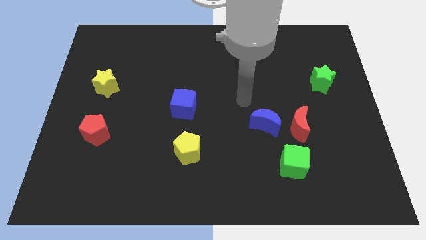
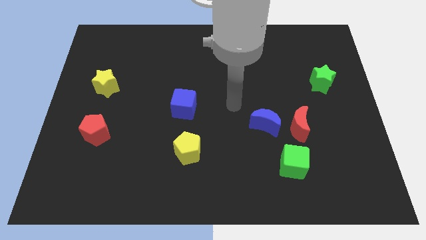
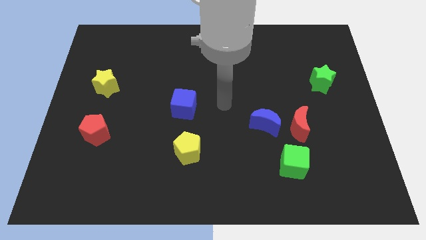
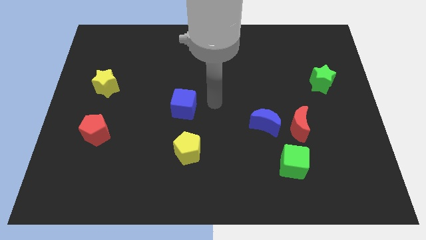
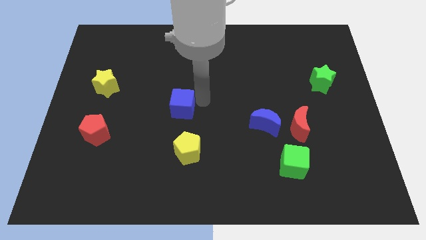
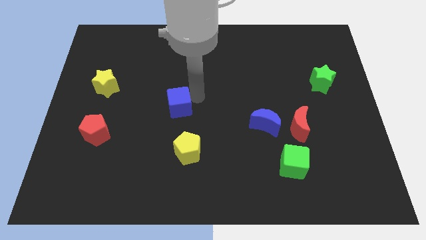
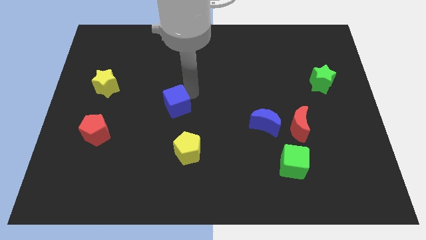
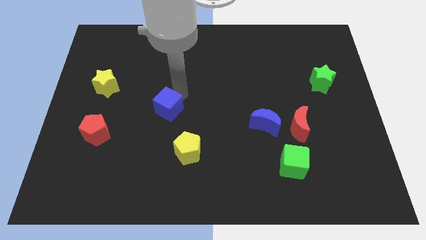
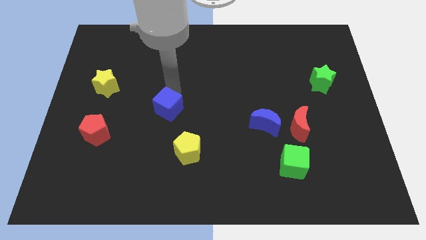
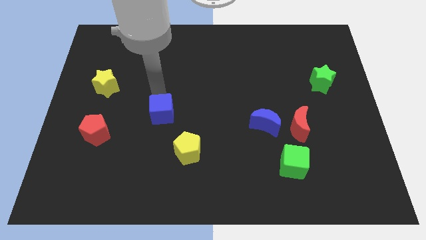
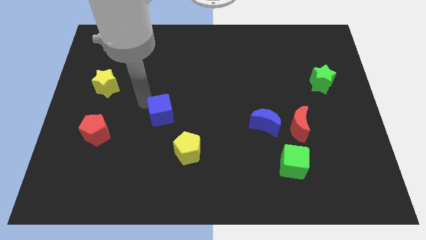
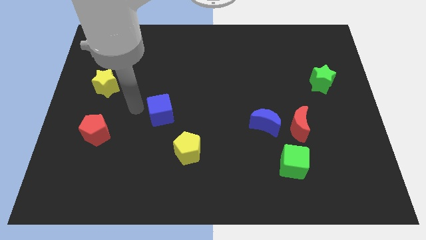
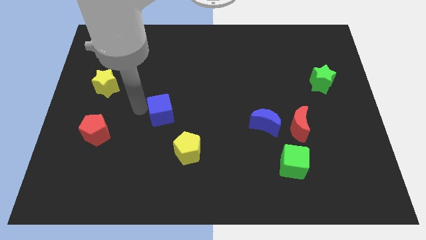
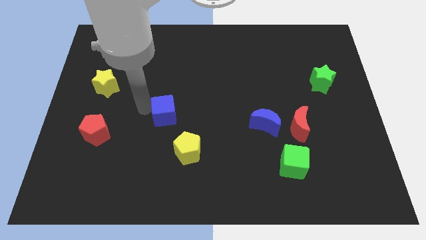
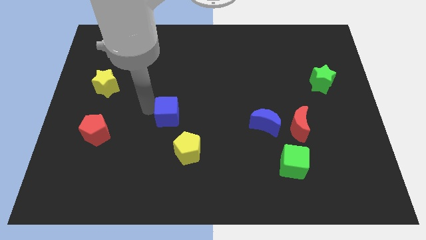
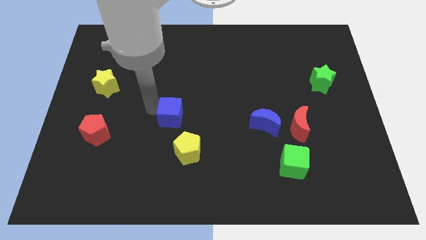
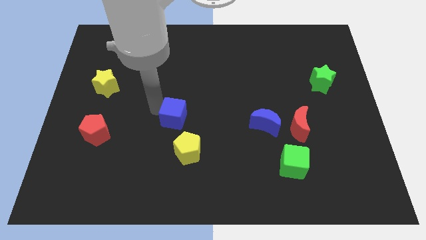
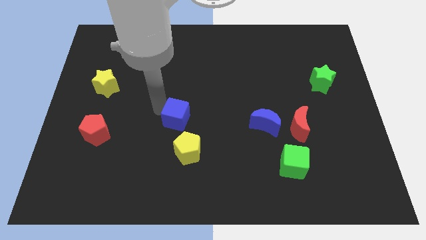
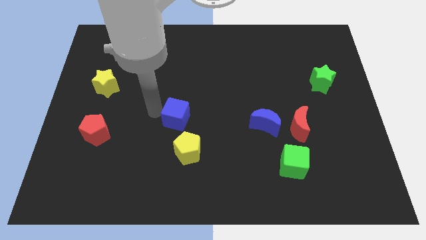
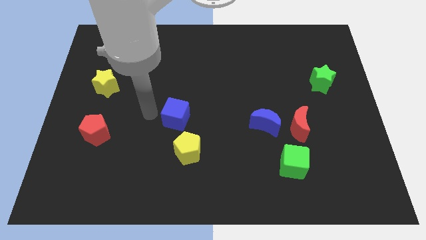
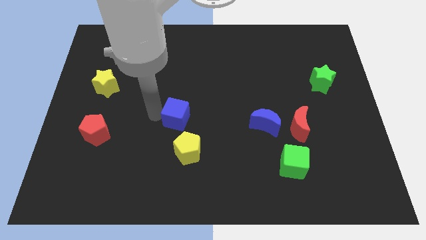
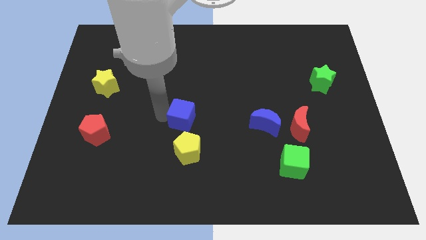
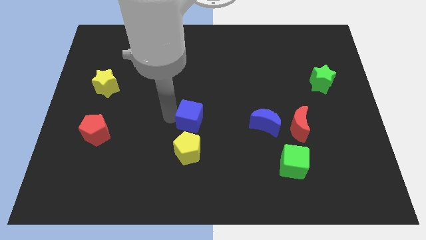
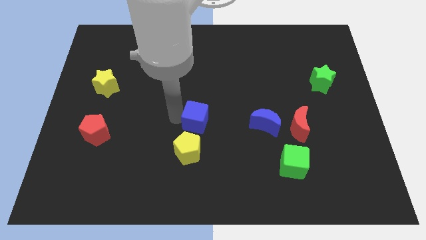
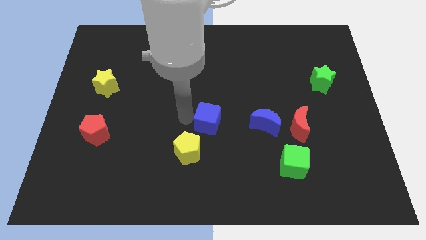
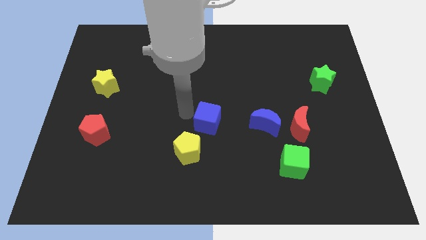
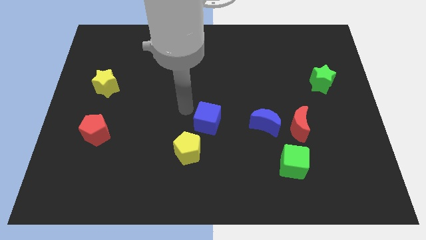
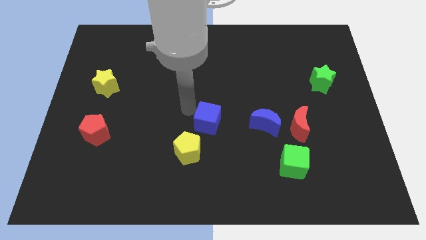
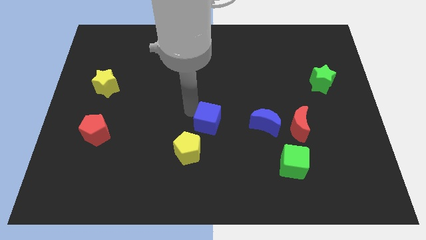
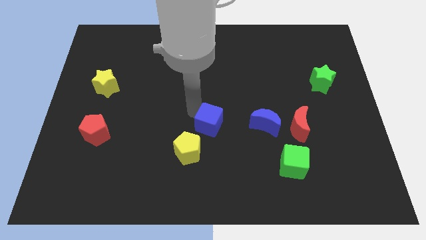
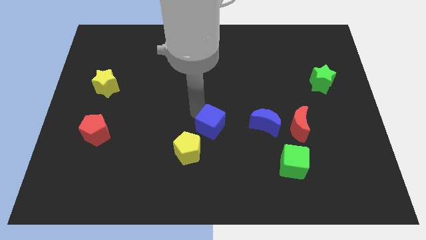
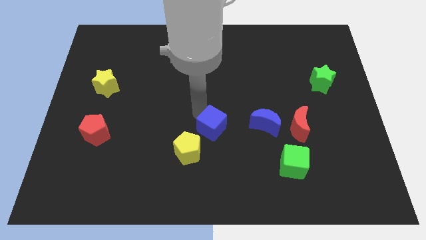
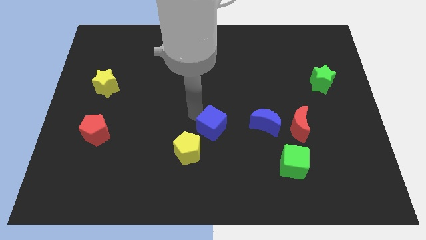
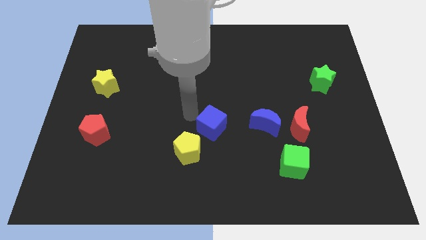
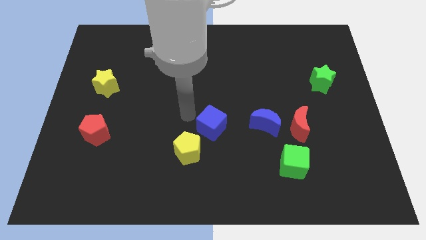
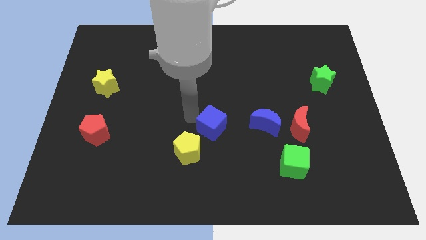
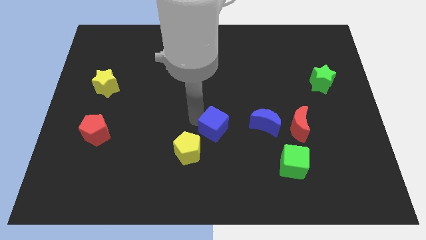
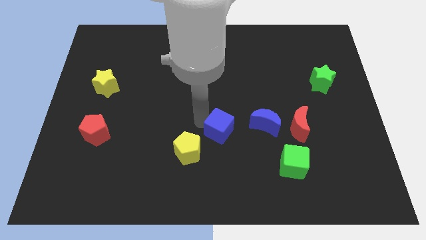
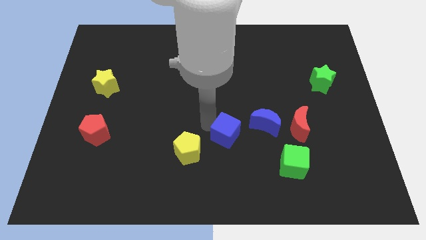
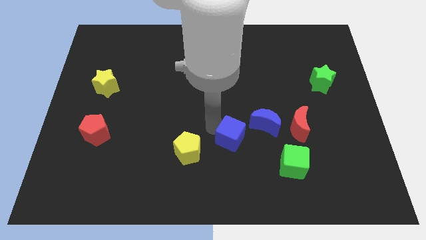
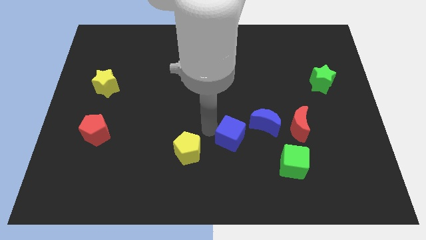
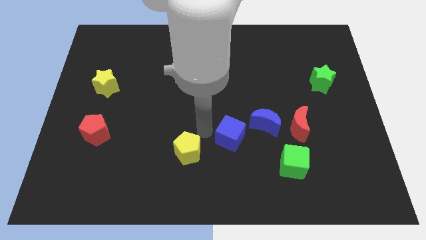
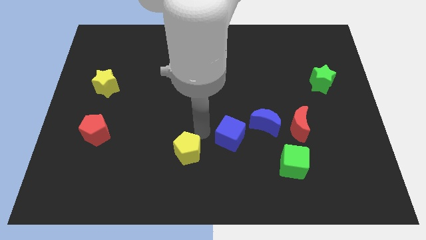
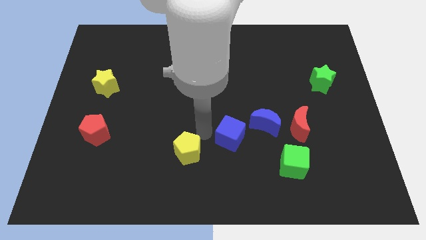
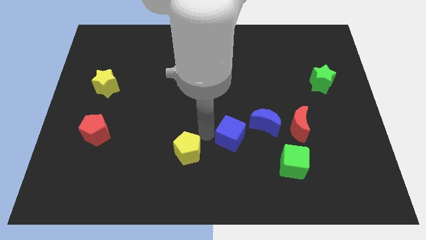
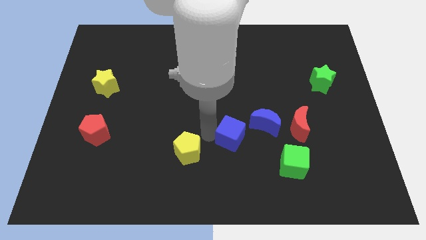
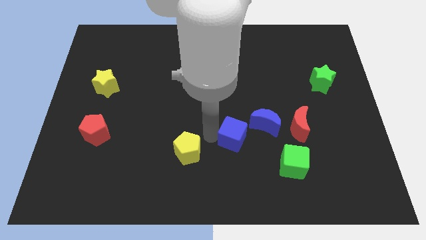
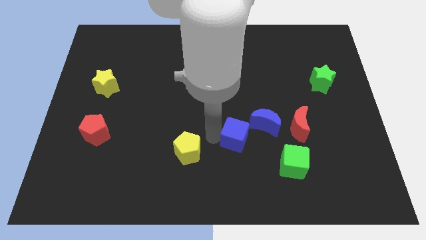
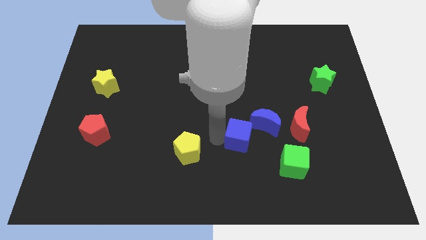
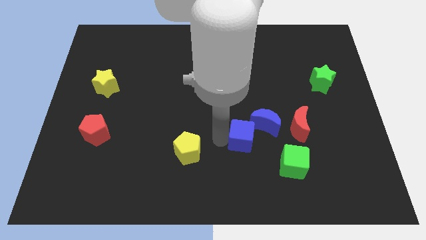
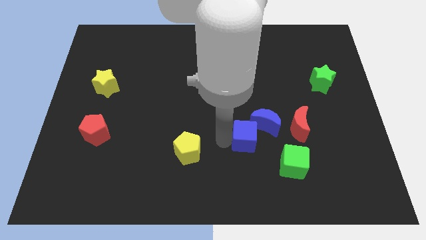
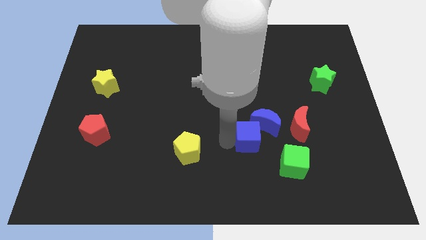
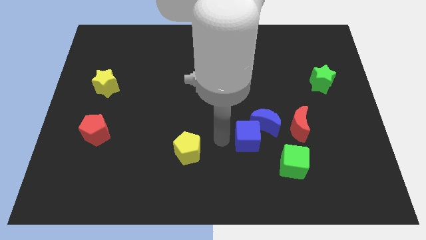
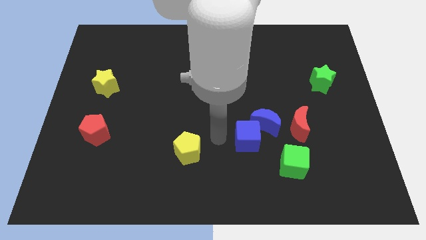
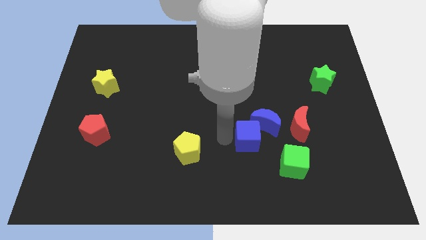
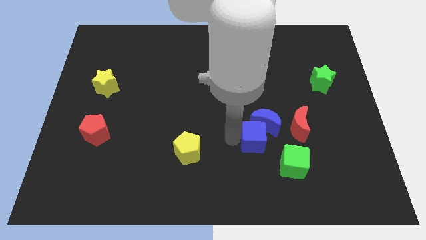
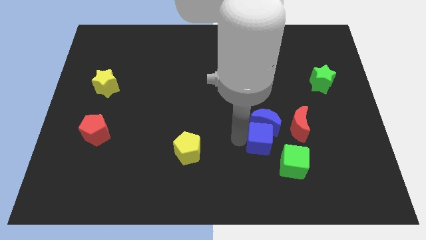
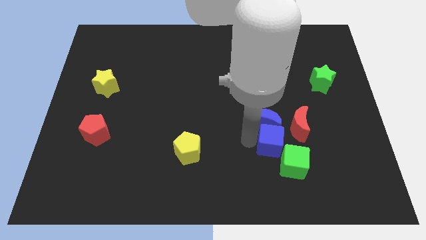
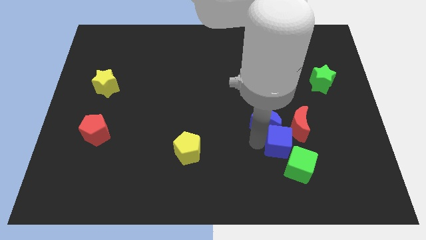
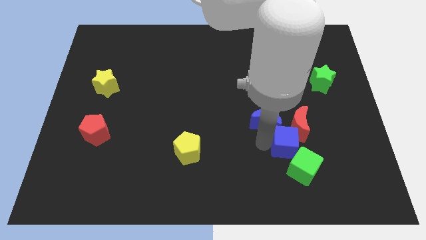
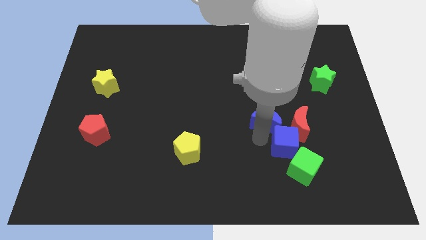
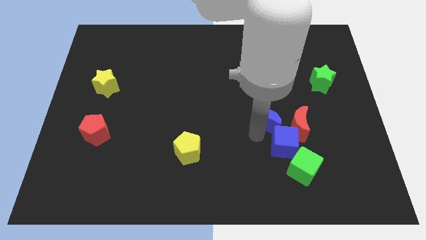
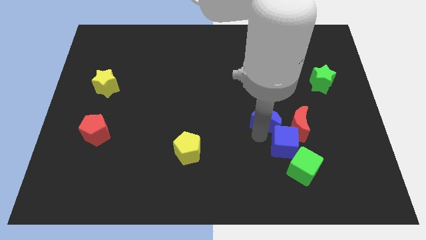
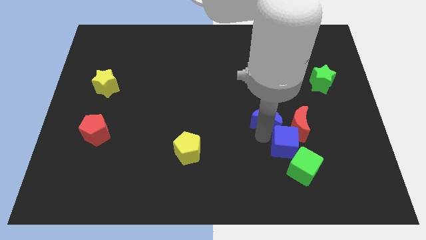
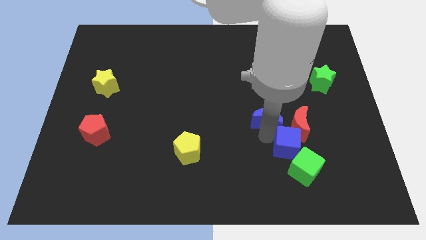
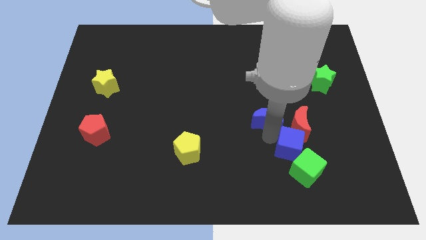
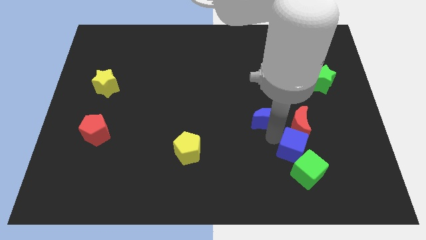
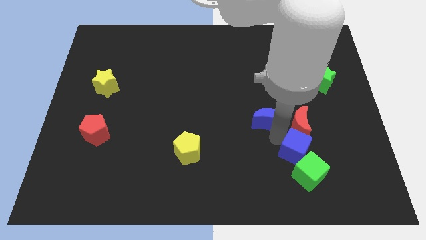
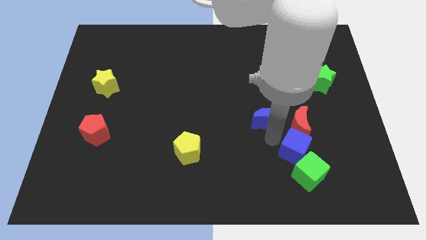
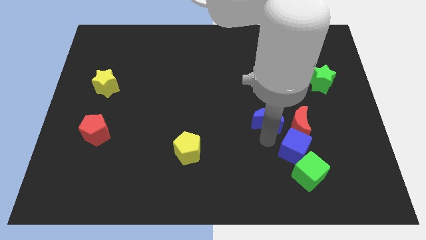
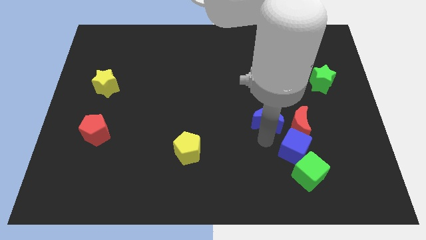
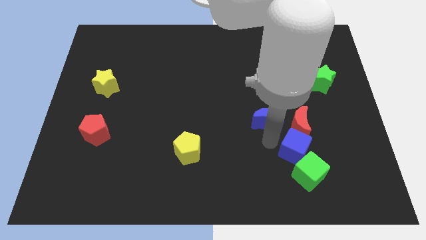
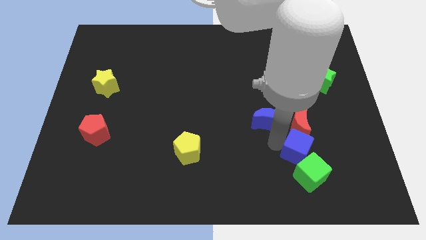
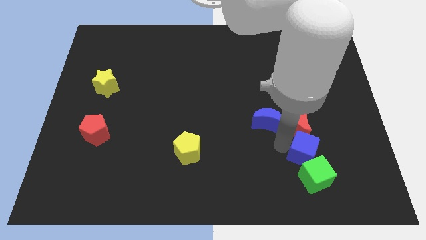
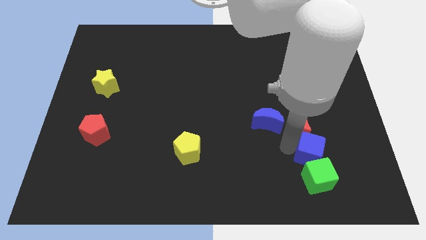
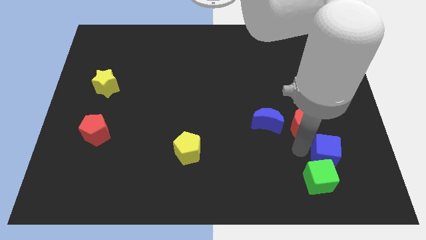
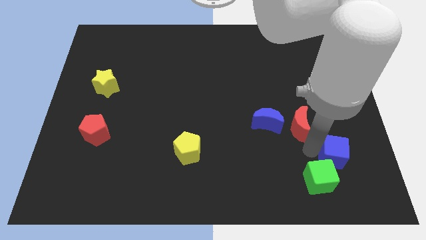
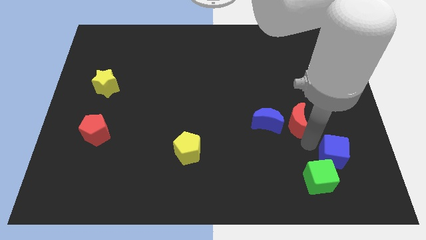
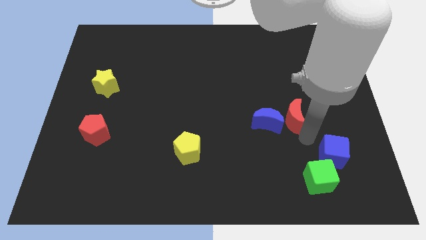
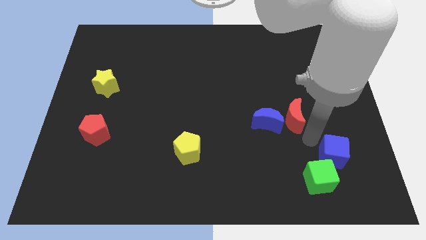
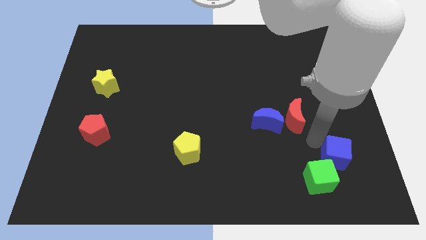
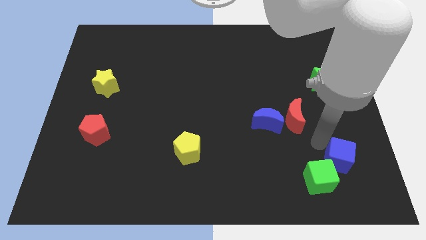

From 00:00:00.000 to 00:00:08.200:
push the blue cube to the right of the green cube
